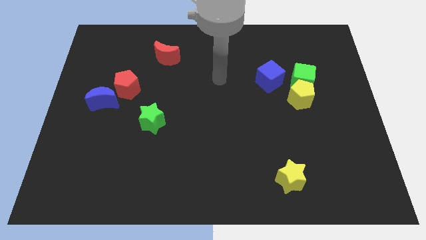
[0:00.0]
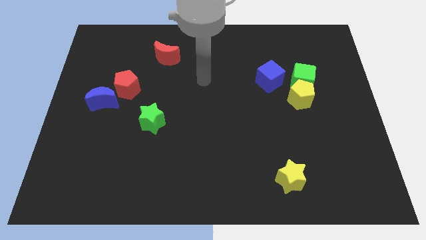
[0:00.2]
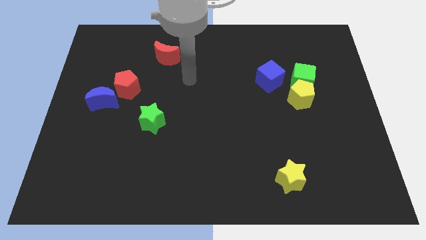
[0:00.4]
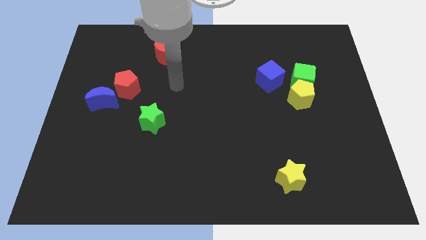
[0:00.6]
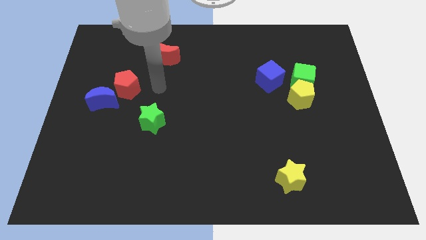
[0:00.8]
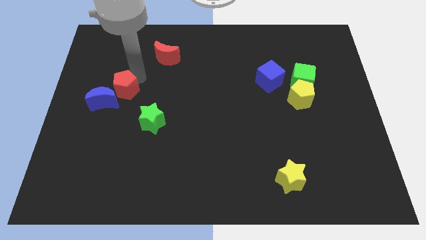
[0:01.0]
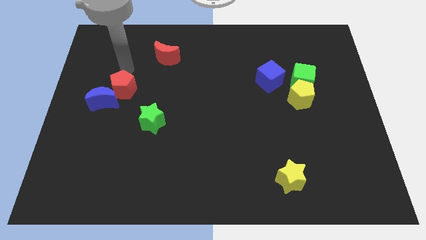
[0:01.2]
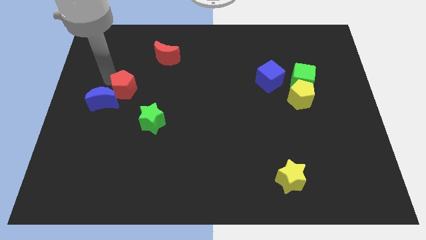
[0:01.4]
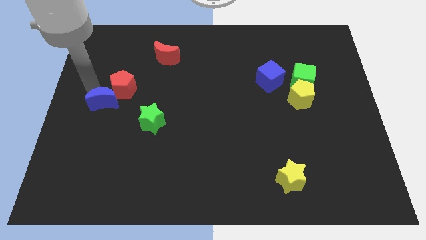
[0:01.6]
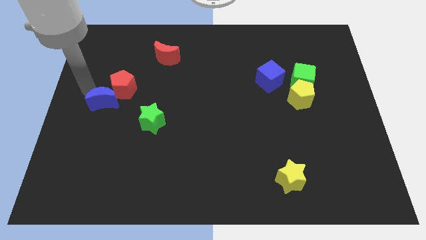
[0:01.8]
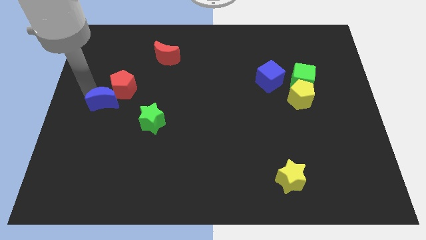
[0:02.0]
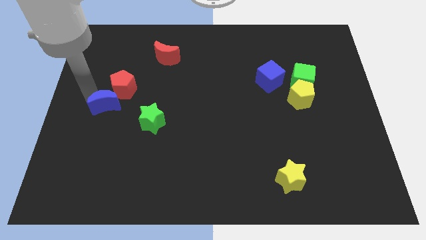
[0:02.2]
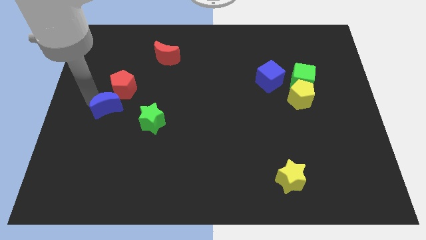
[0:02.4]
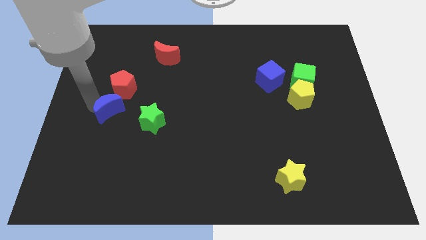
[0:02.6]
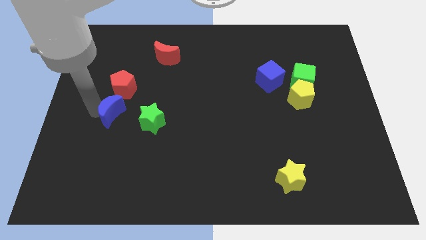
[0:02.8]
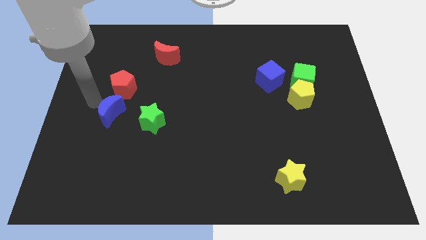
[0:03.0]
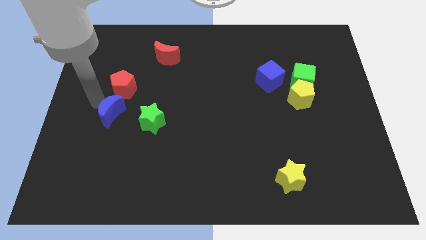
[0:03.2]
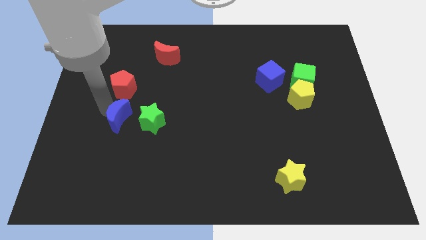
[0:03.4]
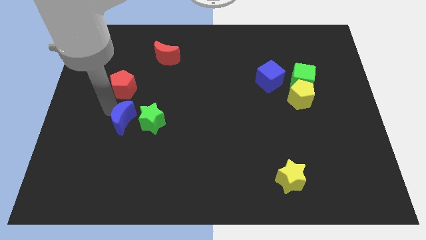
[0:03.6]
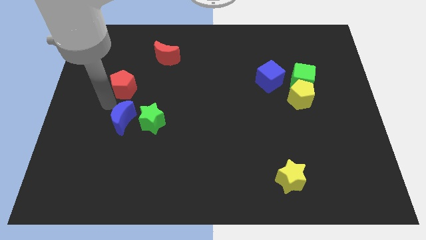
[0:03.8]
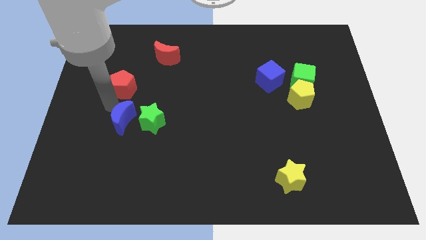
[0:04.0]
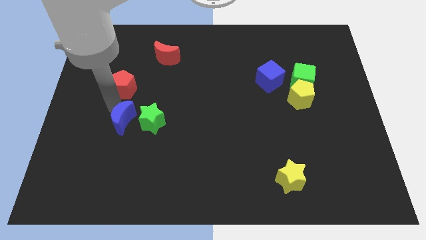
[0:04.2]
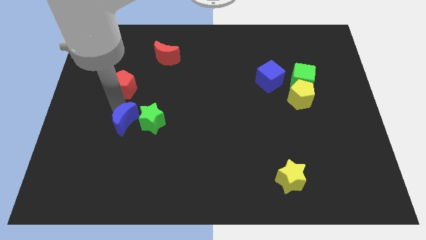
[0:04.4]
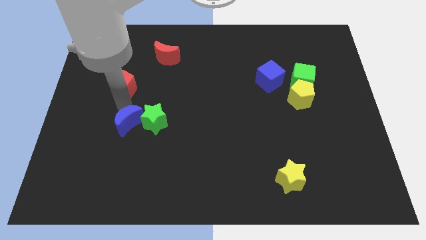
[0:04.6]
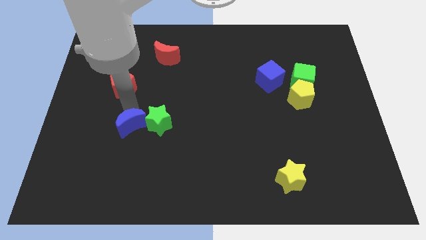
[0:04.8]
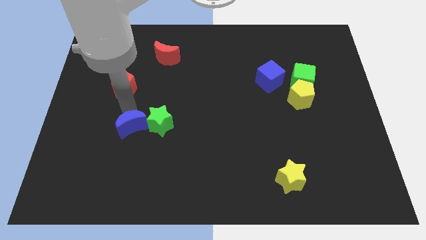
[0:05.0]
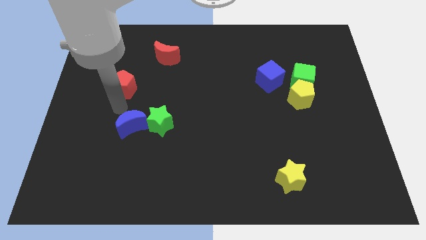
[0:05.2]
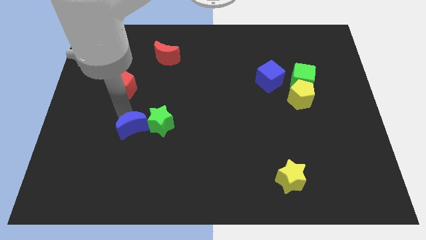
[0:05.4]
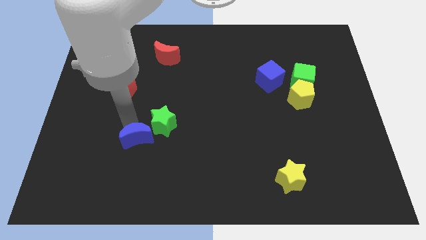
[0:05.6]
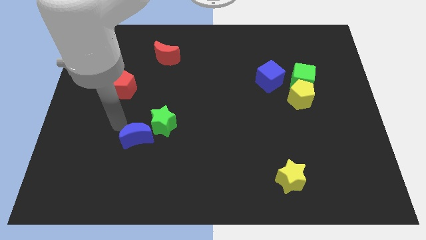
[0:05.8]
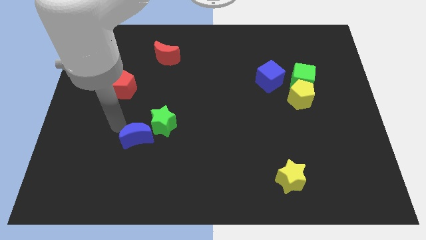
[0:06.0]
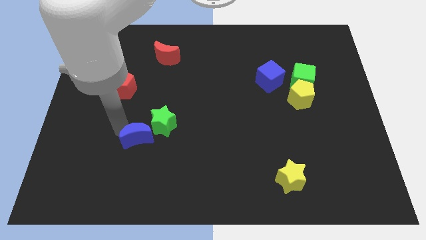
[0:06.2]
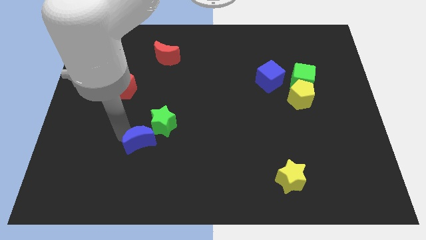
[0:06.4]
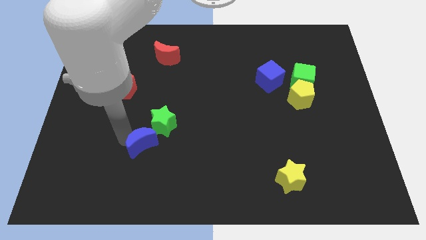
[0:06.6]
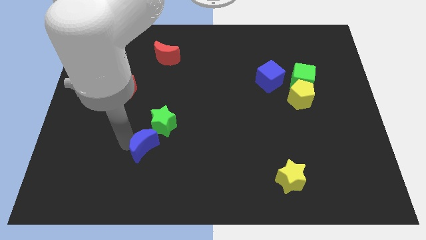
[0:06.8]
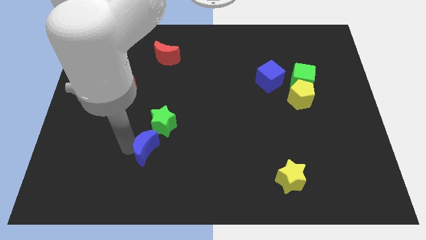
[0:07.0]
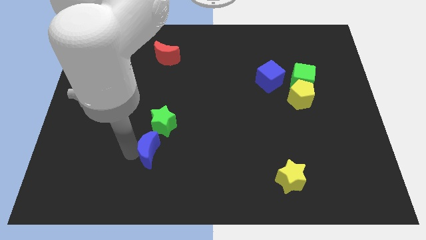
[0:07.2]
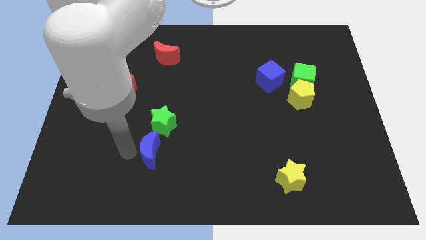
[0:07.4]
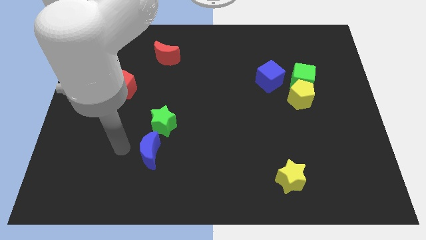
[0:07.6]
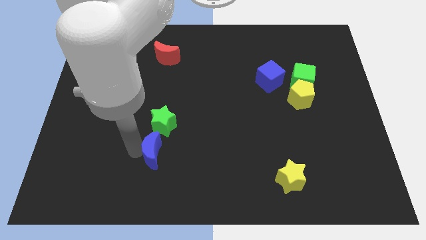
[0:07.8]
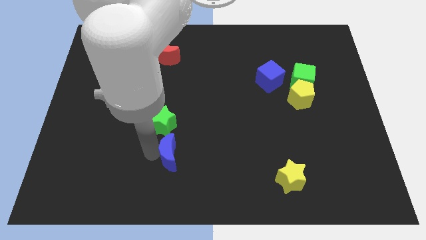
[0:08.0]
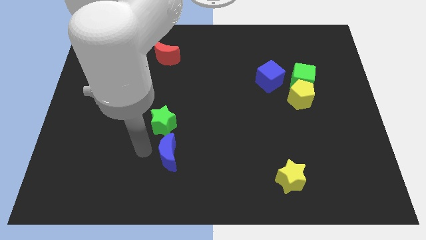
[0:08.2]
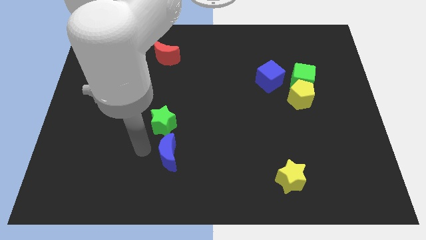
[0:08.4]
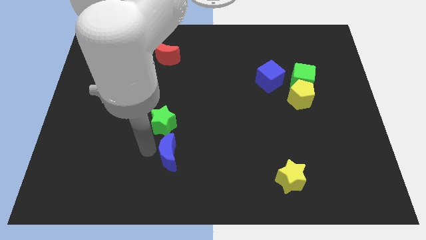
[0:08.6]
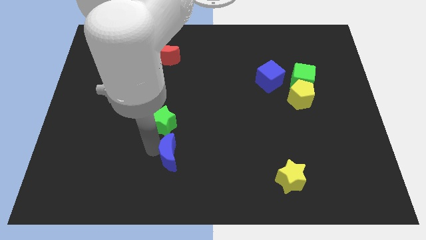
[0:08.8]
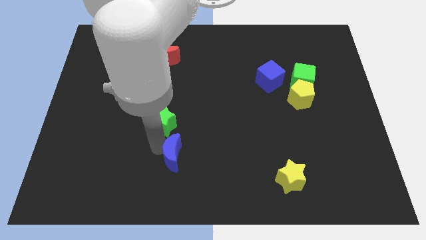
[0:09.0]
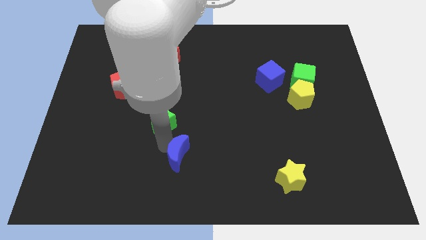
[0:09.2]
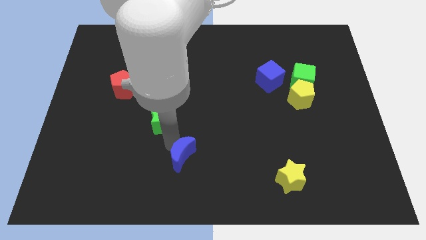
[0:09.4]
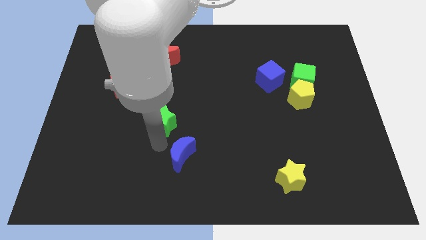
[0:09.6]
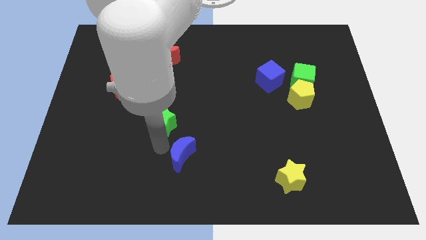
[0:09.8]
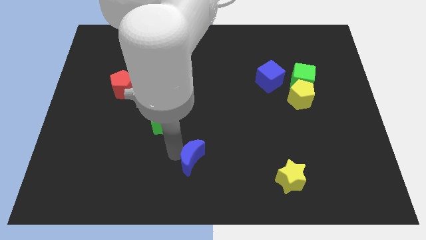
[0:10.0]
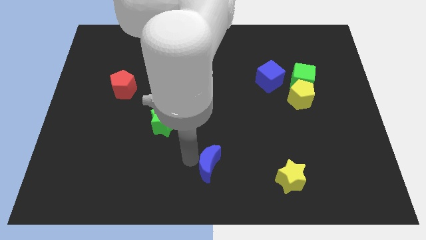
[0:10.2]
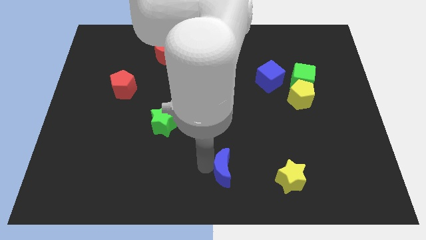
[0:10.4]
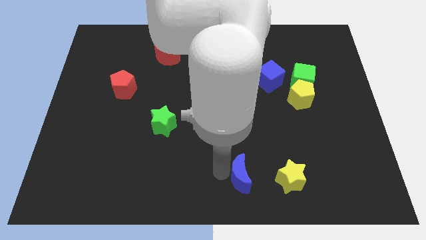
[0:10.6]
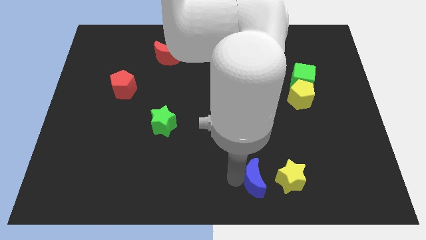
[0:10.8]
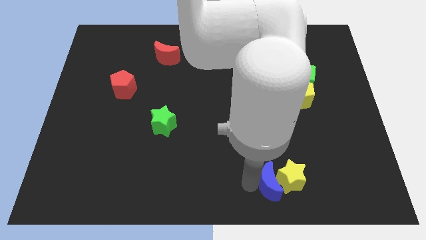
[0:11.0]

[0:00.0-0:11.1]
slide the blue moon to the yellow star

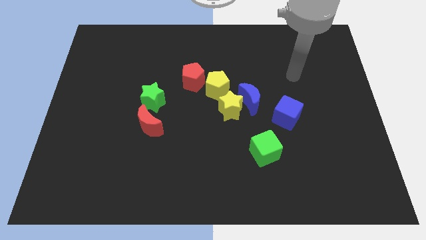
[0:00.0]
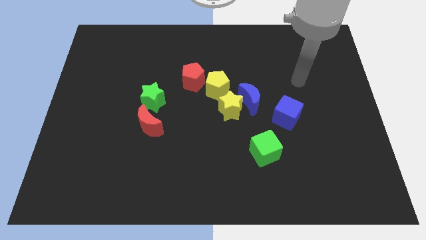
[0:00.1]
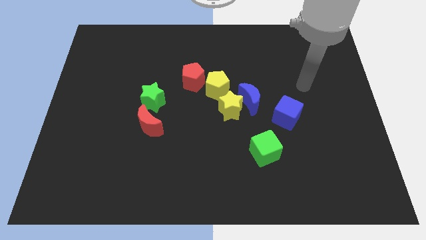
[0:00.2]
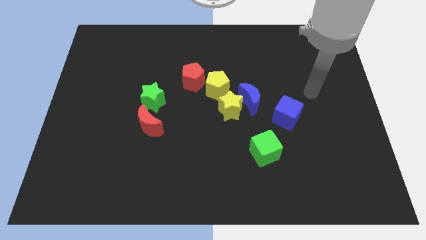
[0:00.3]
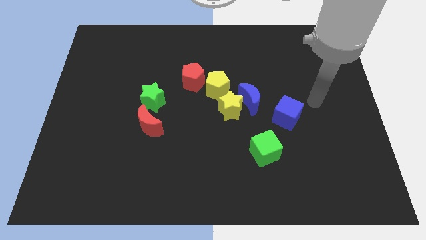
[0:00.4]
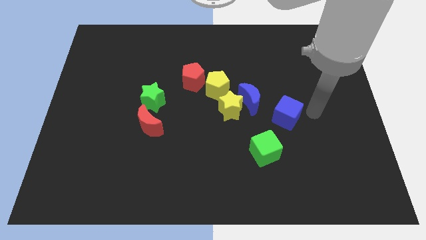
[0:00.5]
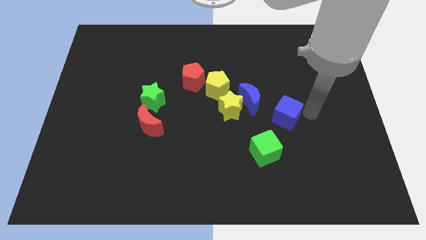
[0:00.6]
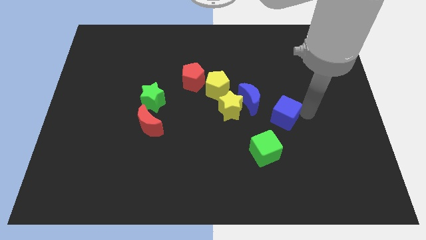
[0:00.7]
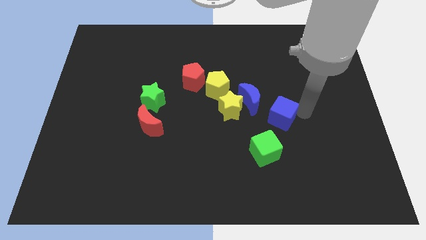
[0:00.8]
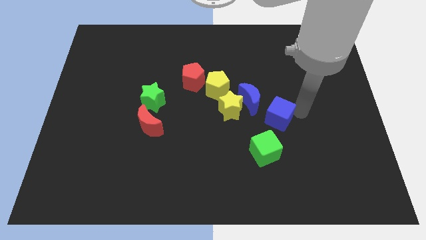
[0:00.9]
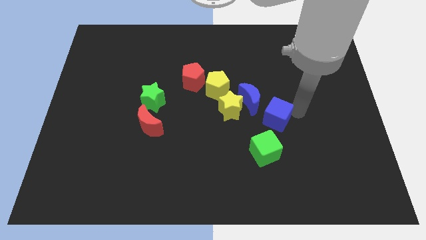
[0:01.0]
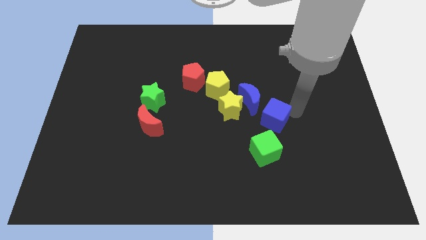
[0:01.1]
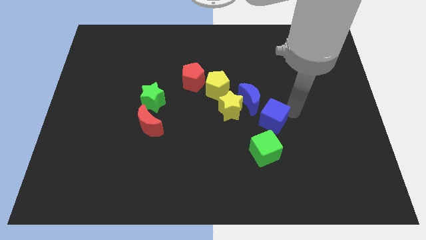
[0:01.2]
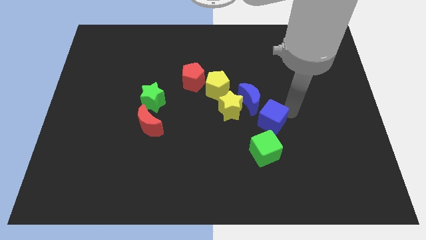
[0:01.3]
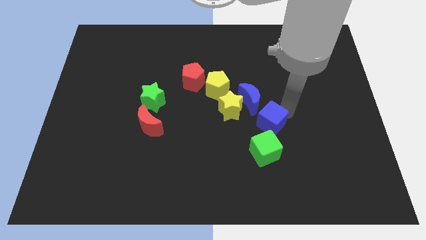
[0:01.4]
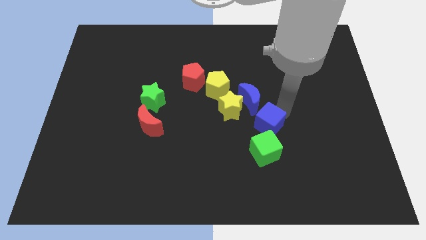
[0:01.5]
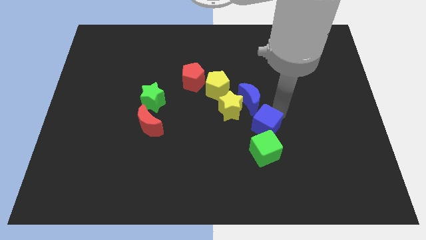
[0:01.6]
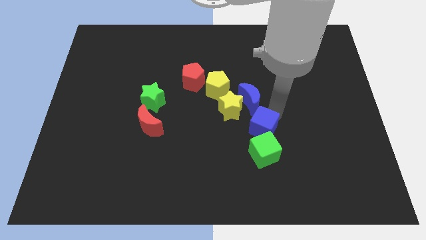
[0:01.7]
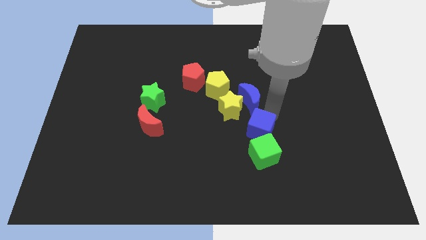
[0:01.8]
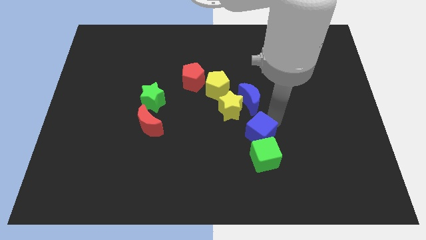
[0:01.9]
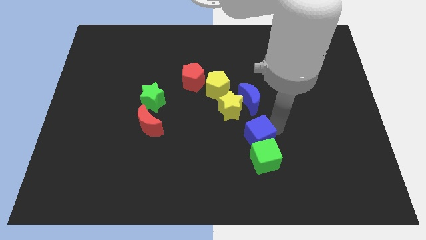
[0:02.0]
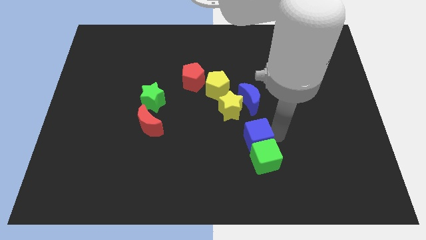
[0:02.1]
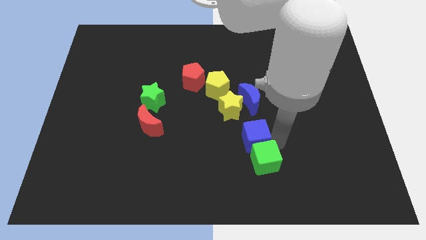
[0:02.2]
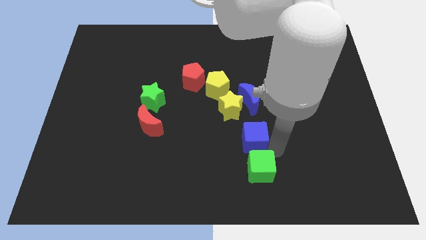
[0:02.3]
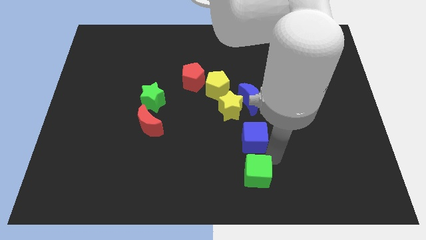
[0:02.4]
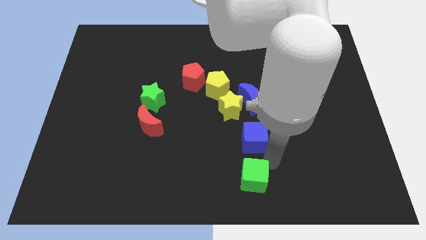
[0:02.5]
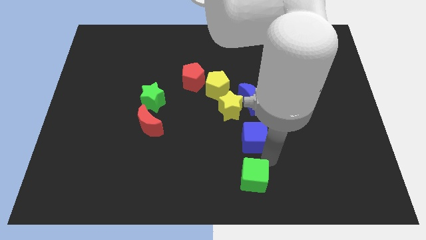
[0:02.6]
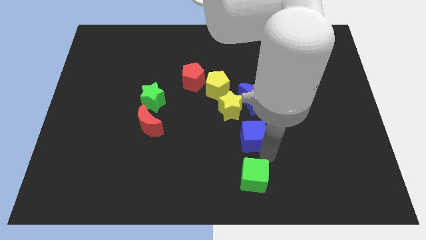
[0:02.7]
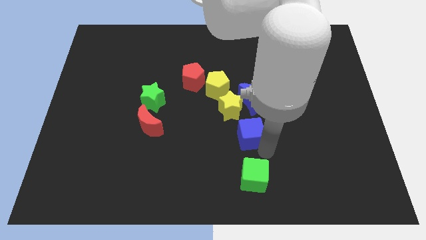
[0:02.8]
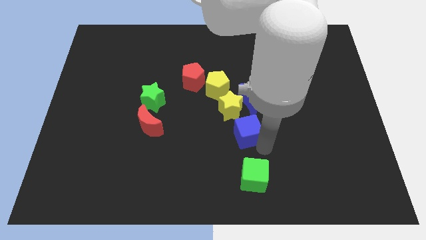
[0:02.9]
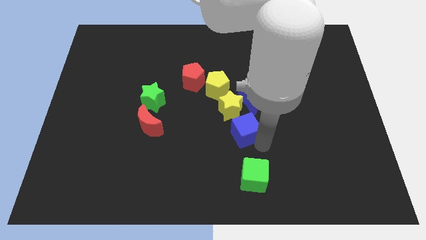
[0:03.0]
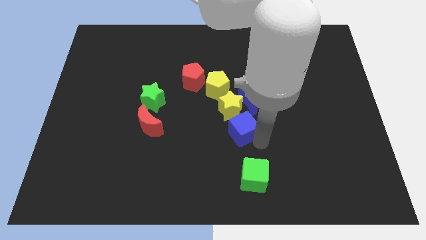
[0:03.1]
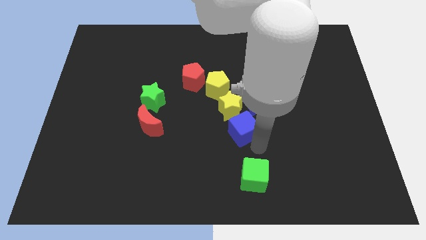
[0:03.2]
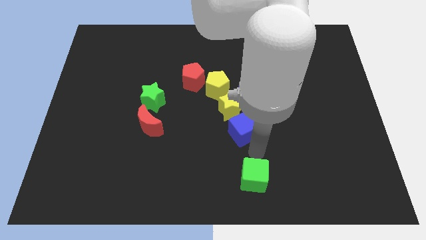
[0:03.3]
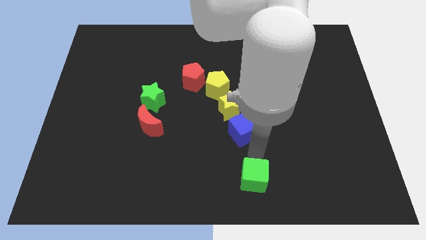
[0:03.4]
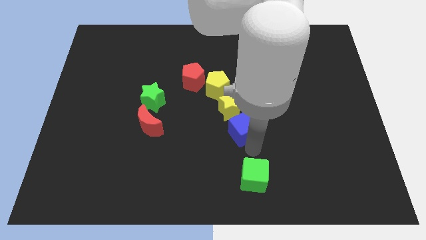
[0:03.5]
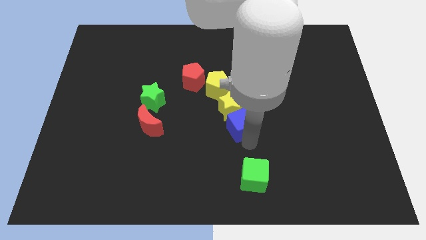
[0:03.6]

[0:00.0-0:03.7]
move the blue cube towards the yellow star
